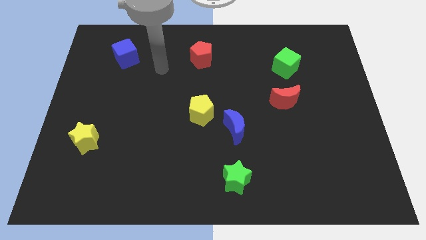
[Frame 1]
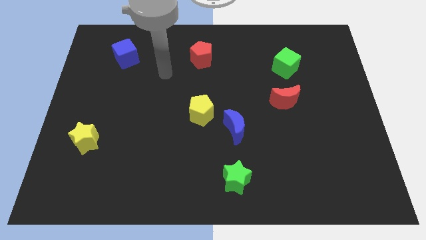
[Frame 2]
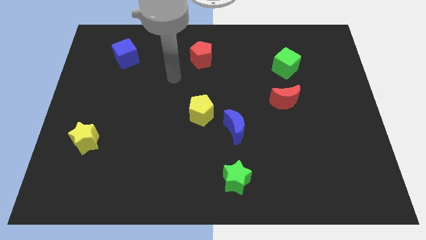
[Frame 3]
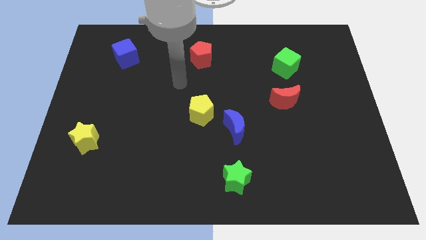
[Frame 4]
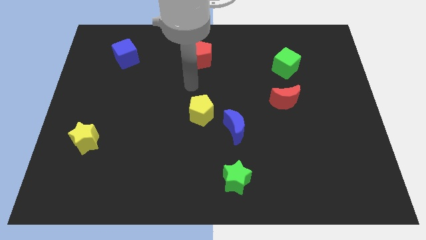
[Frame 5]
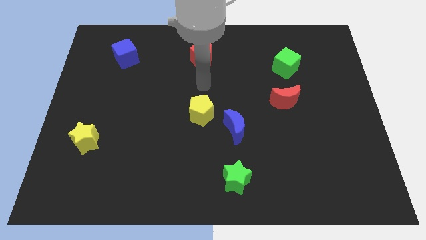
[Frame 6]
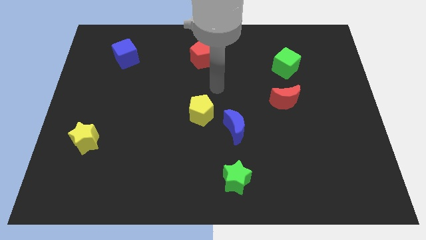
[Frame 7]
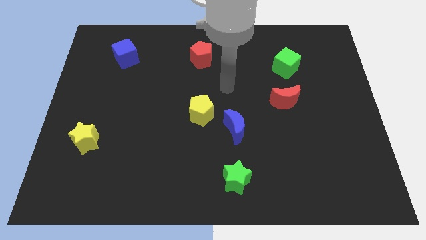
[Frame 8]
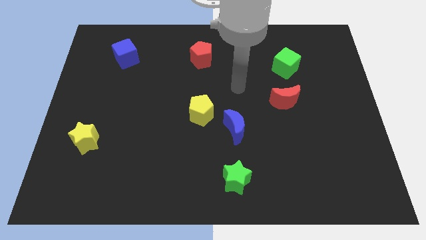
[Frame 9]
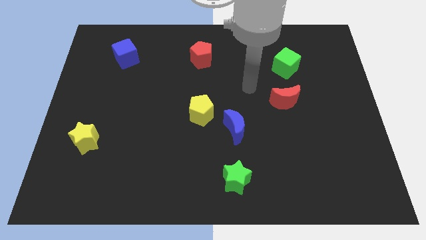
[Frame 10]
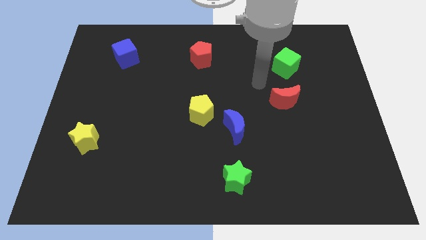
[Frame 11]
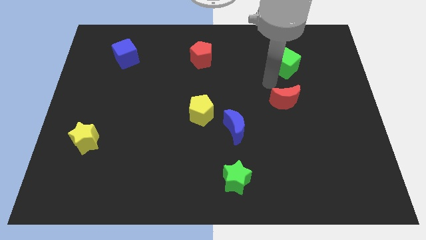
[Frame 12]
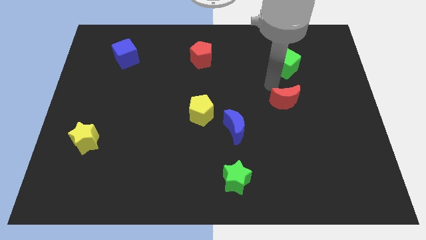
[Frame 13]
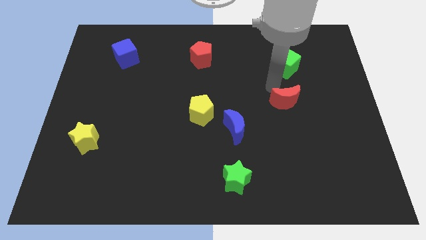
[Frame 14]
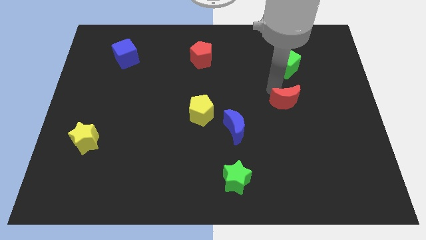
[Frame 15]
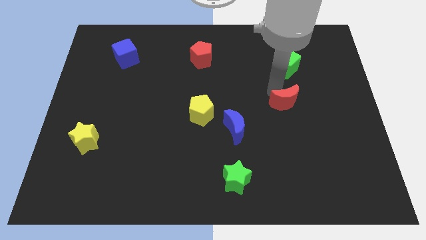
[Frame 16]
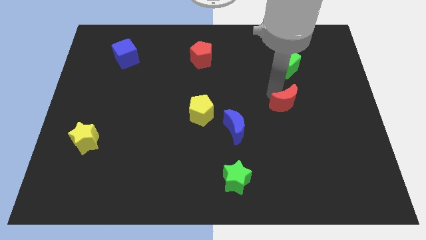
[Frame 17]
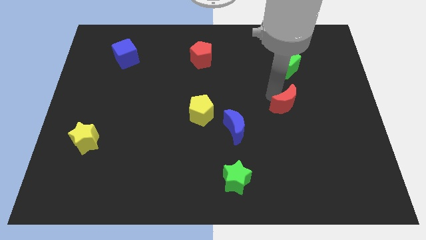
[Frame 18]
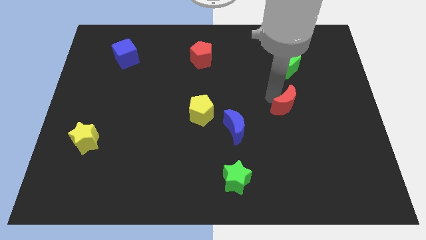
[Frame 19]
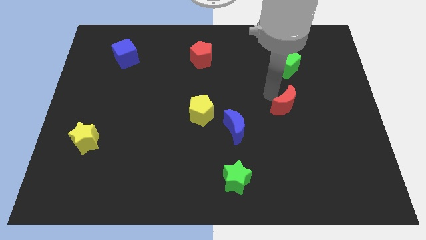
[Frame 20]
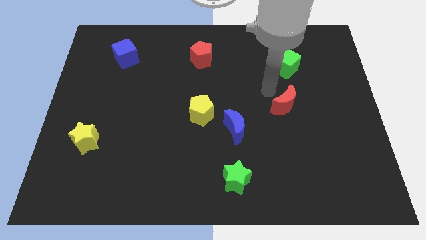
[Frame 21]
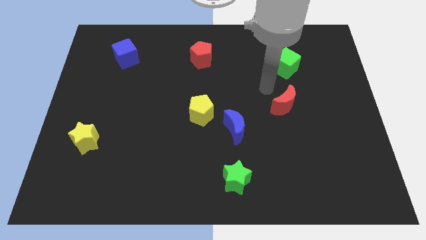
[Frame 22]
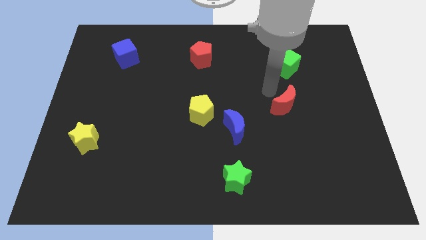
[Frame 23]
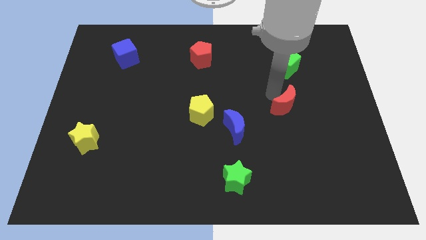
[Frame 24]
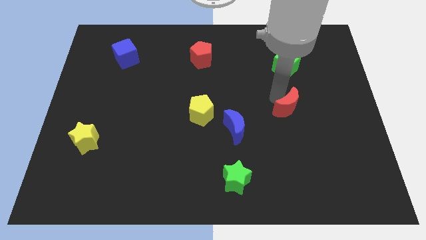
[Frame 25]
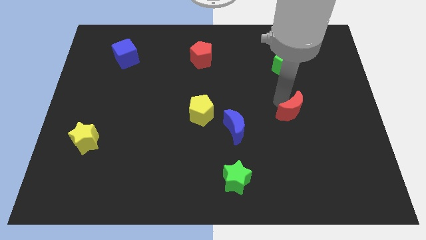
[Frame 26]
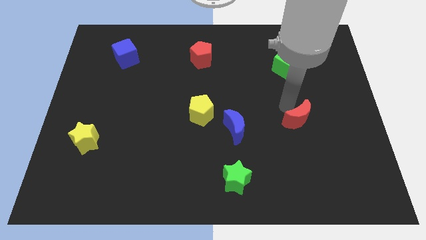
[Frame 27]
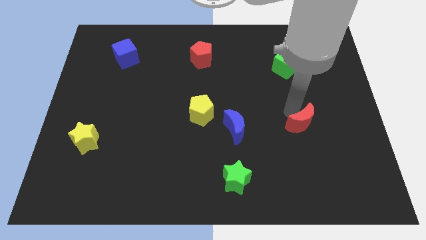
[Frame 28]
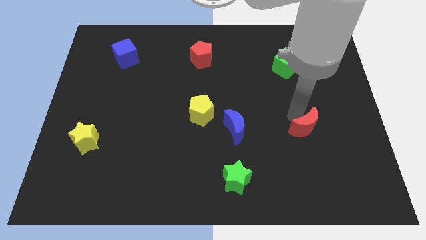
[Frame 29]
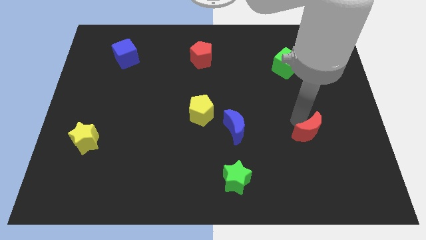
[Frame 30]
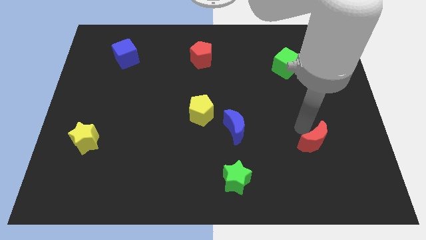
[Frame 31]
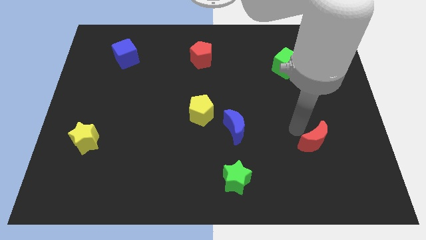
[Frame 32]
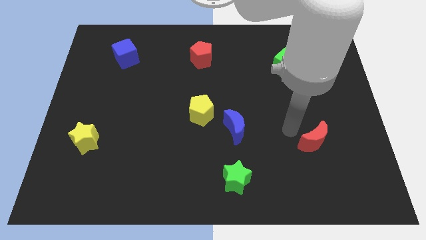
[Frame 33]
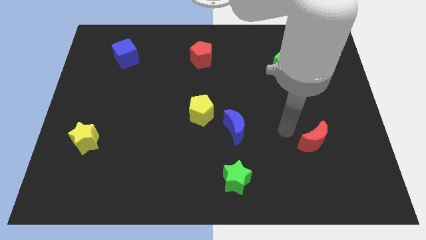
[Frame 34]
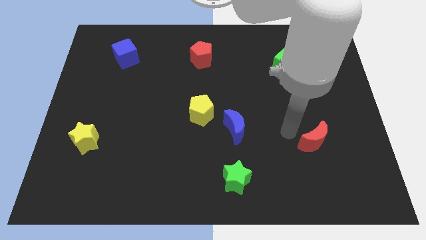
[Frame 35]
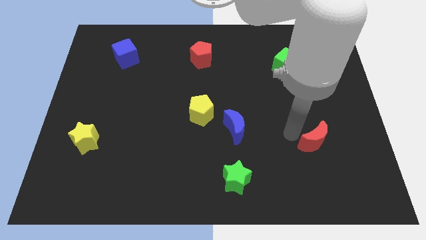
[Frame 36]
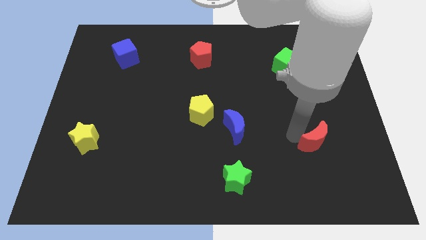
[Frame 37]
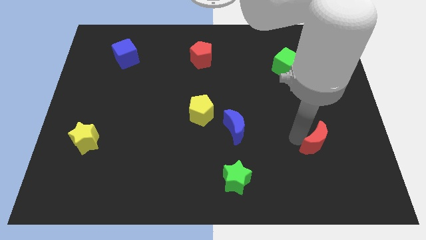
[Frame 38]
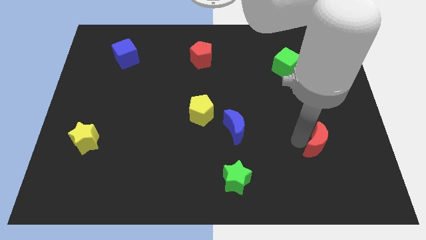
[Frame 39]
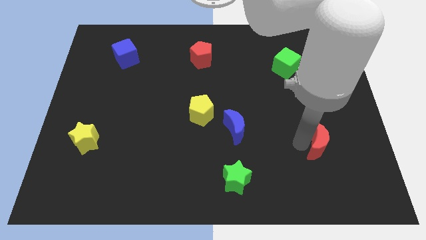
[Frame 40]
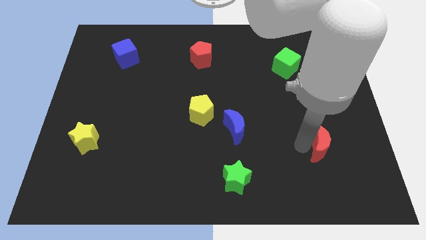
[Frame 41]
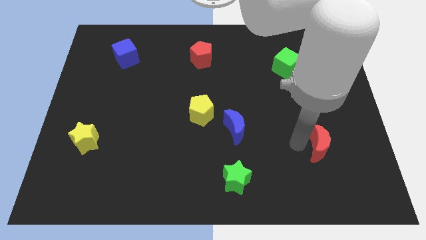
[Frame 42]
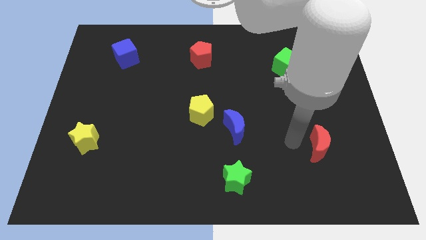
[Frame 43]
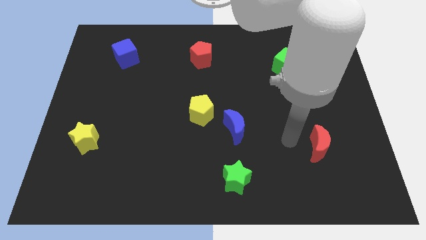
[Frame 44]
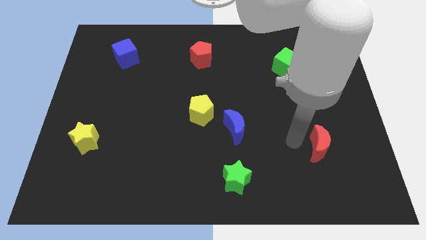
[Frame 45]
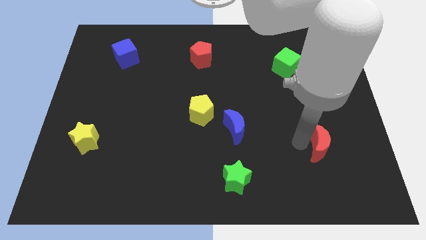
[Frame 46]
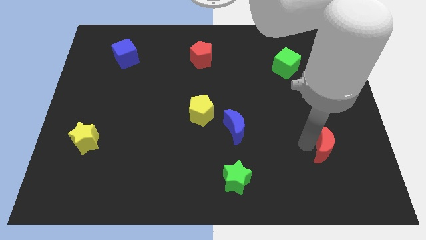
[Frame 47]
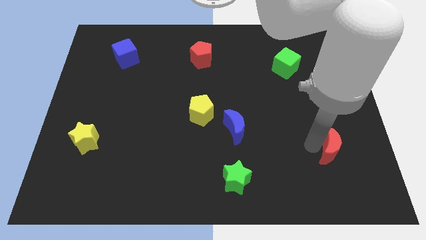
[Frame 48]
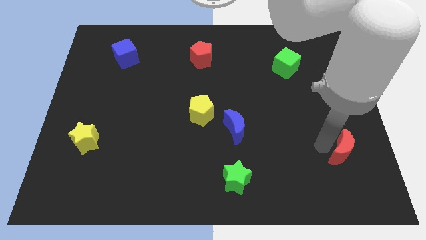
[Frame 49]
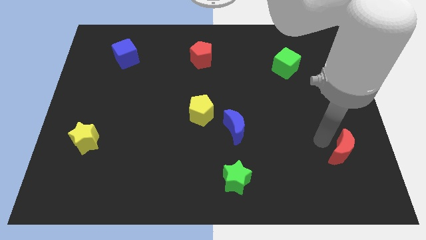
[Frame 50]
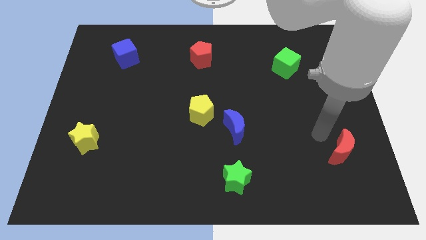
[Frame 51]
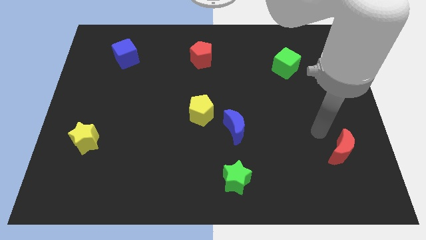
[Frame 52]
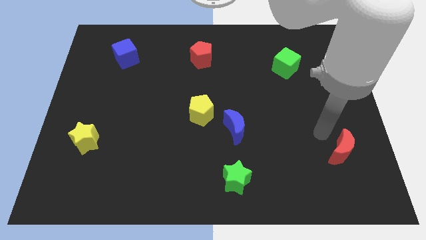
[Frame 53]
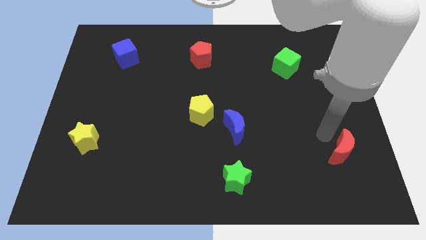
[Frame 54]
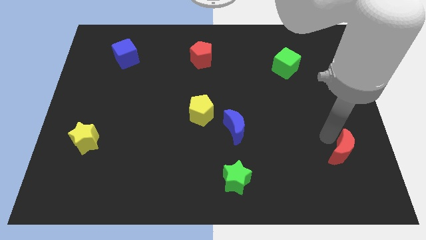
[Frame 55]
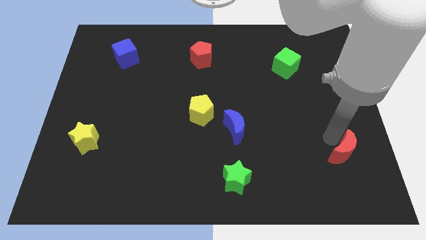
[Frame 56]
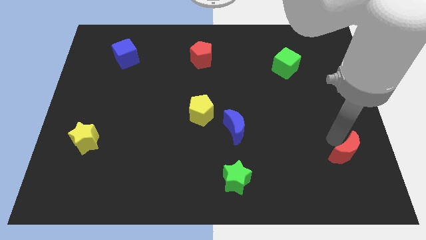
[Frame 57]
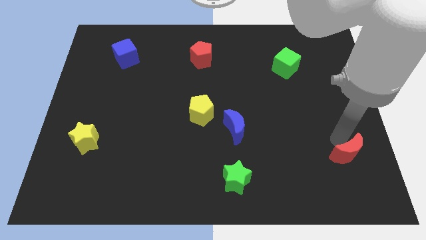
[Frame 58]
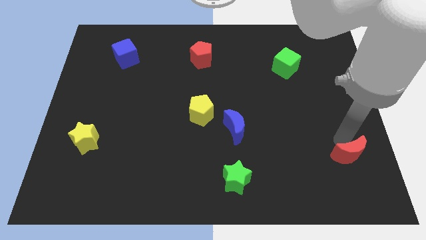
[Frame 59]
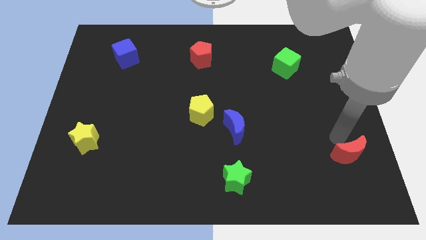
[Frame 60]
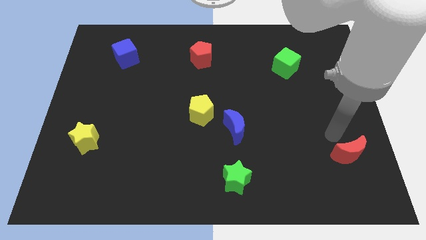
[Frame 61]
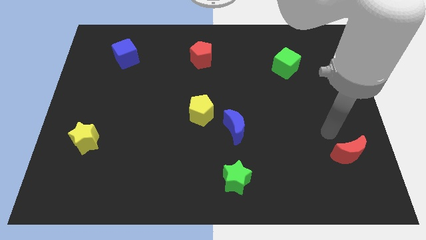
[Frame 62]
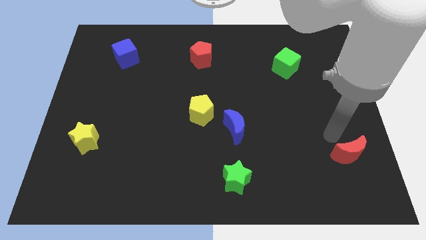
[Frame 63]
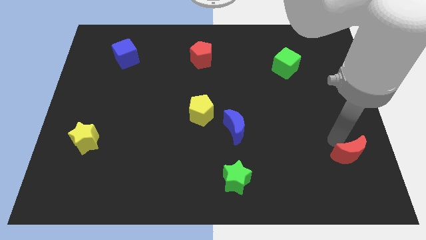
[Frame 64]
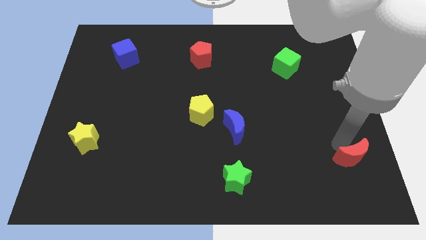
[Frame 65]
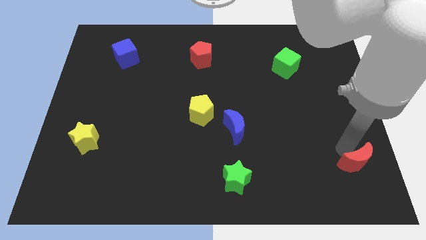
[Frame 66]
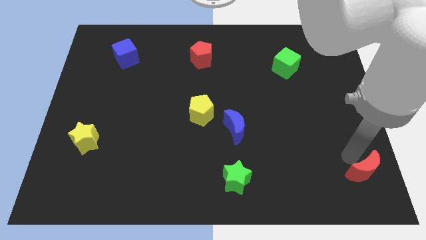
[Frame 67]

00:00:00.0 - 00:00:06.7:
put the red moon to the lower right corner
